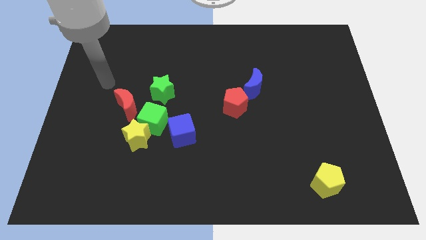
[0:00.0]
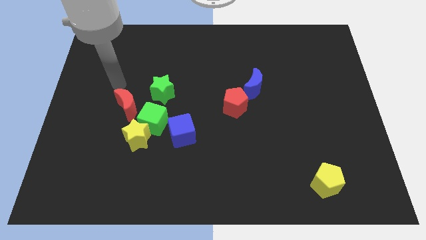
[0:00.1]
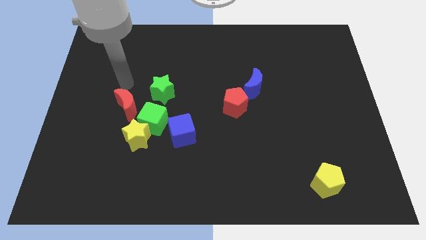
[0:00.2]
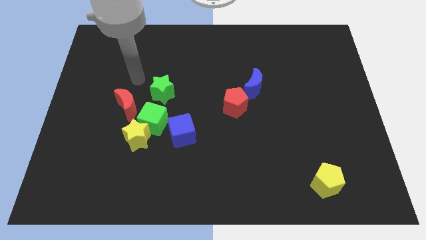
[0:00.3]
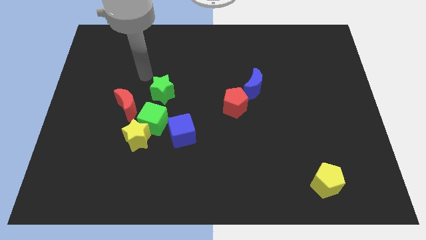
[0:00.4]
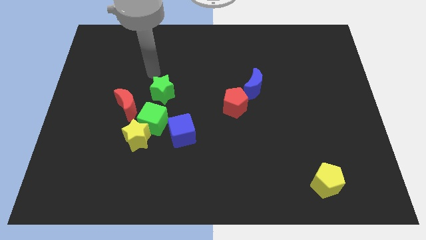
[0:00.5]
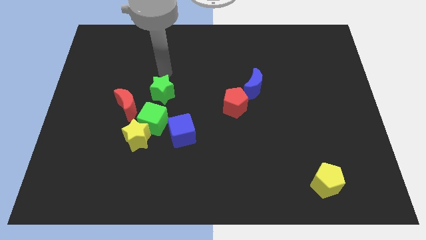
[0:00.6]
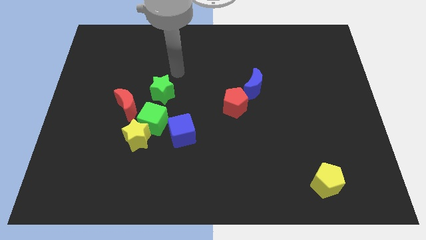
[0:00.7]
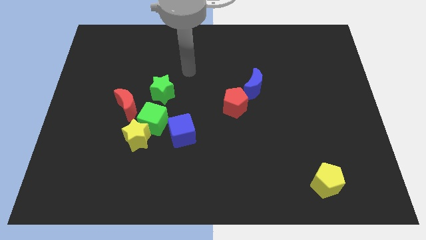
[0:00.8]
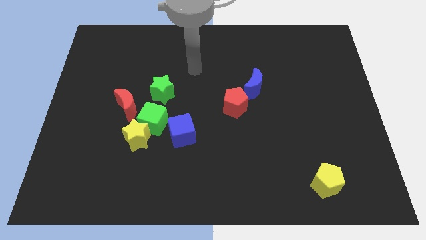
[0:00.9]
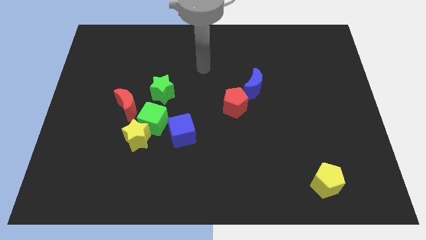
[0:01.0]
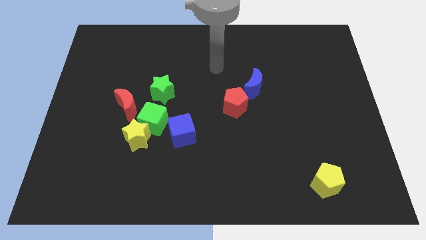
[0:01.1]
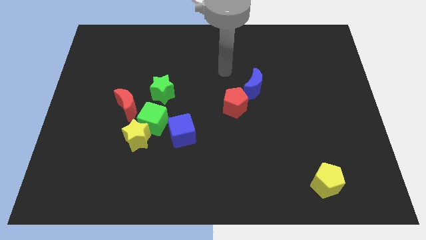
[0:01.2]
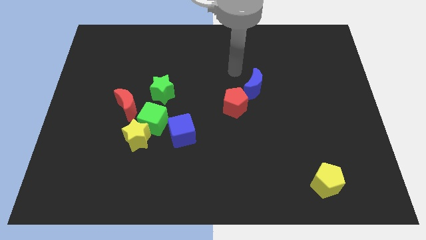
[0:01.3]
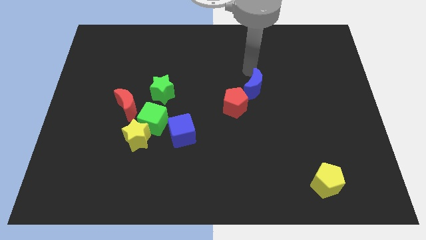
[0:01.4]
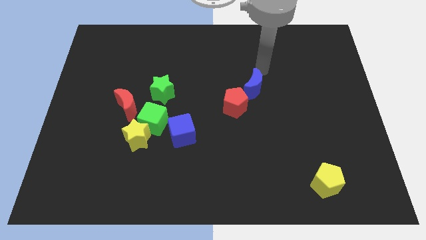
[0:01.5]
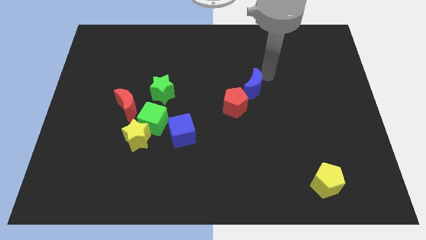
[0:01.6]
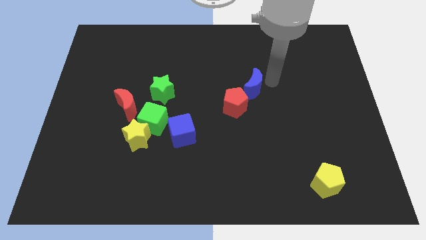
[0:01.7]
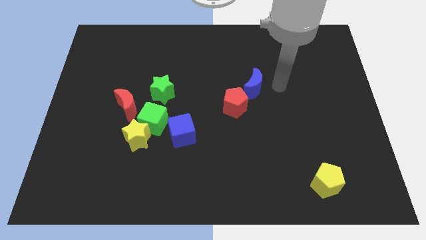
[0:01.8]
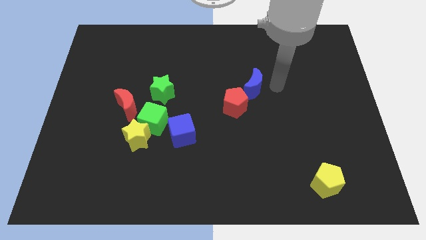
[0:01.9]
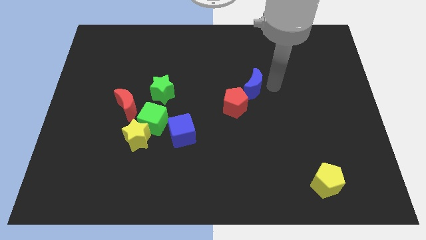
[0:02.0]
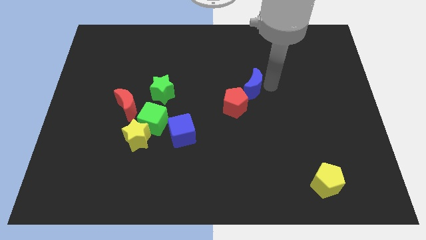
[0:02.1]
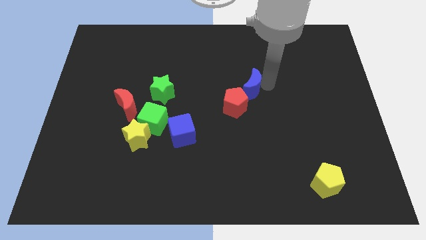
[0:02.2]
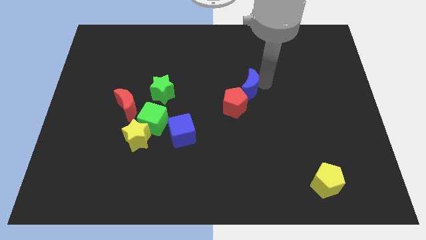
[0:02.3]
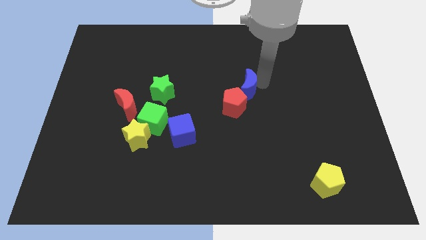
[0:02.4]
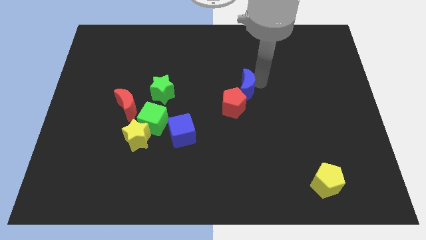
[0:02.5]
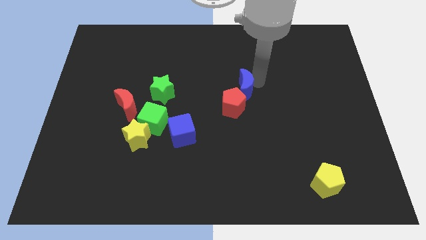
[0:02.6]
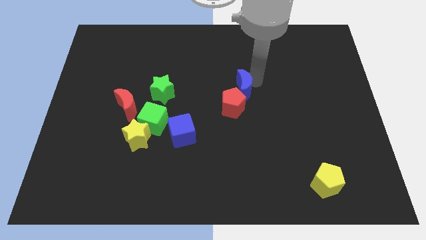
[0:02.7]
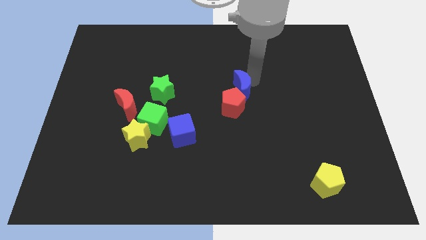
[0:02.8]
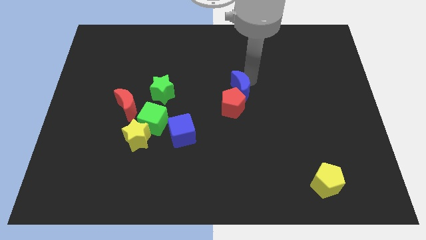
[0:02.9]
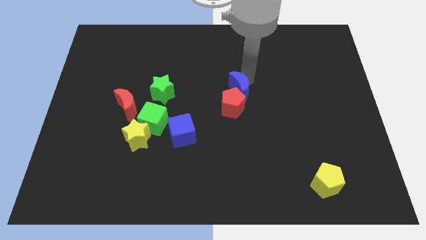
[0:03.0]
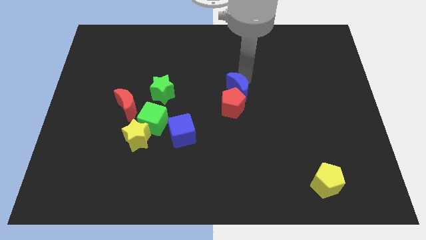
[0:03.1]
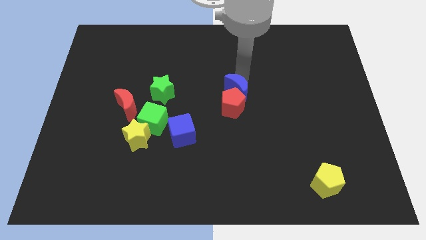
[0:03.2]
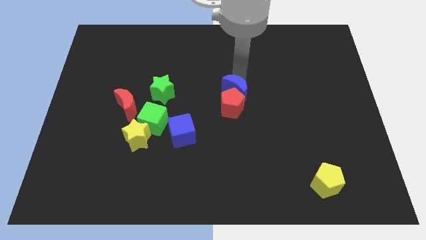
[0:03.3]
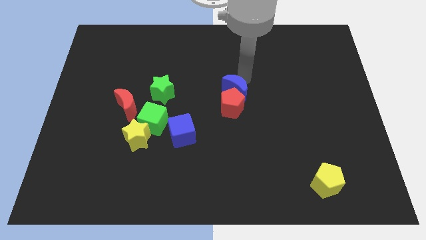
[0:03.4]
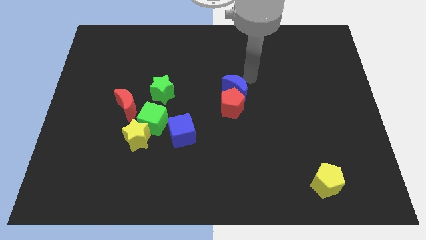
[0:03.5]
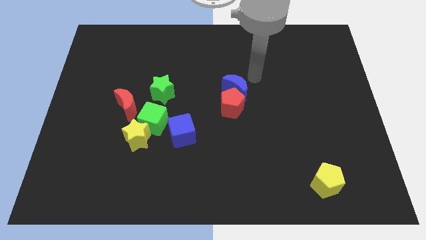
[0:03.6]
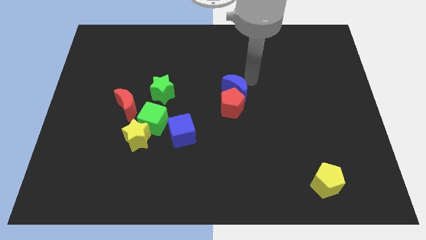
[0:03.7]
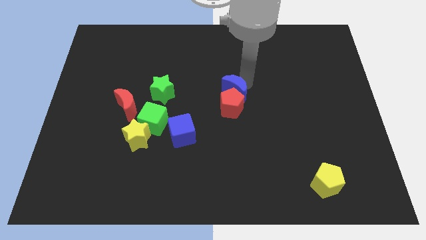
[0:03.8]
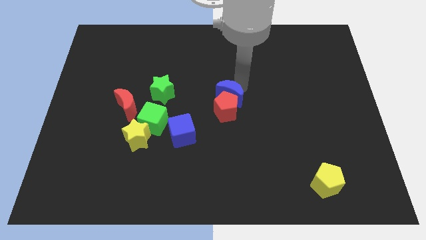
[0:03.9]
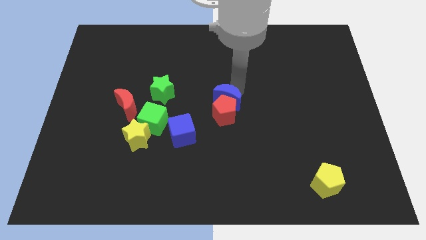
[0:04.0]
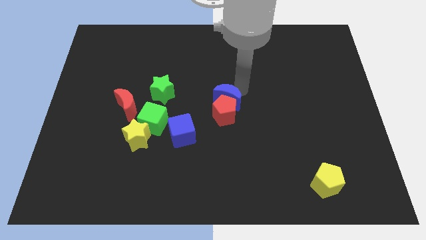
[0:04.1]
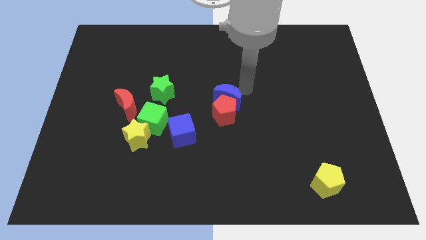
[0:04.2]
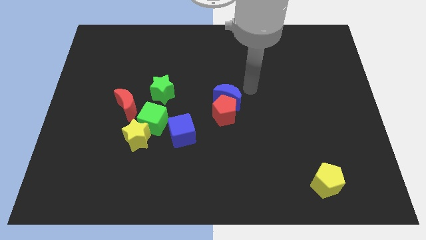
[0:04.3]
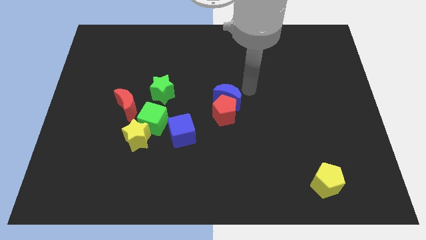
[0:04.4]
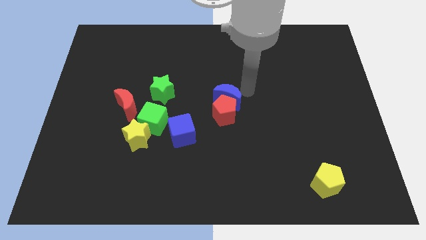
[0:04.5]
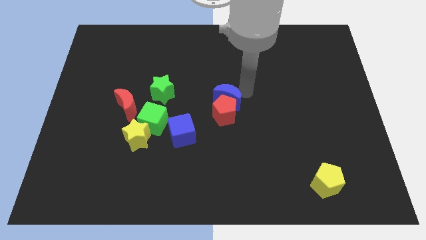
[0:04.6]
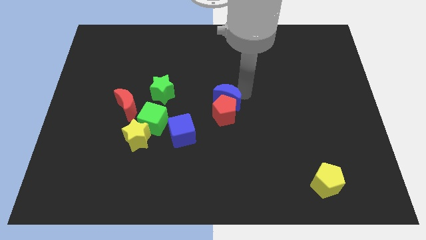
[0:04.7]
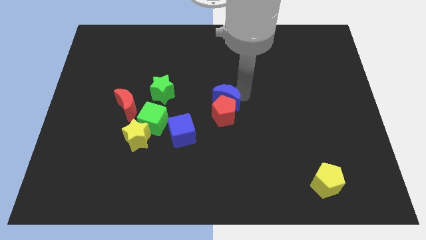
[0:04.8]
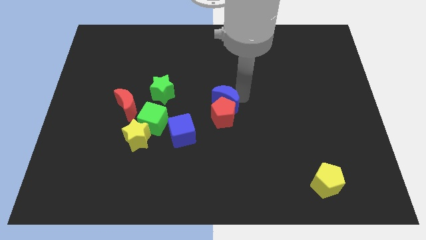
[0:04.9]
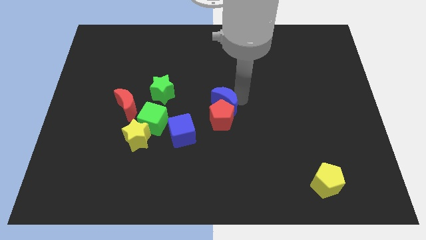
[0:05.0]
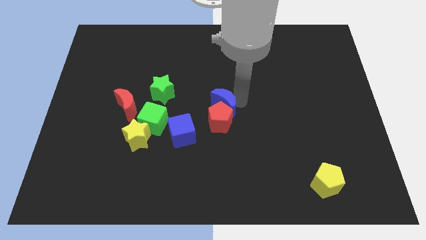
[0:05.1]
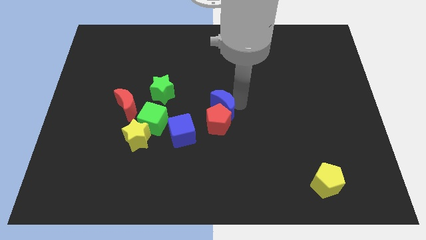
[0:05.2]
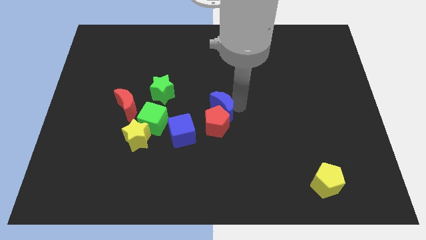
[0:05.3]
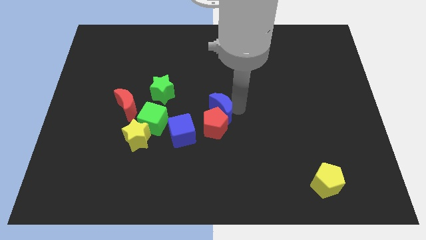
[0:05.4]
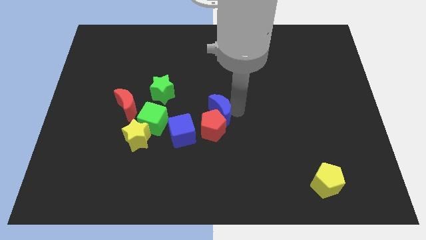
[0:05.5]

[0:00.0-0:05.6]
move the blue moon to the right side of the green cube

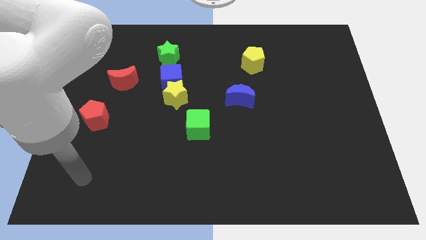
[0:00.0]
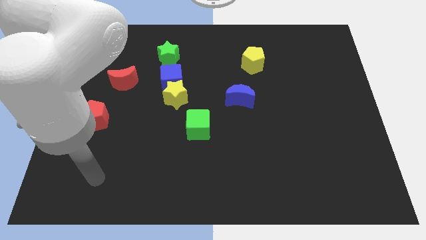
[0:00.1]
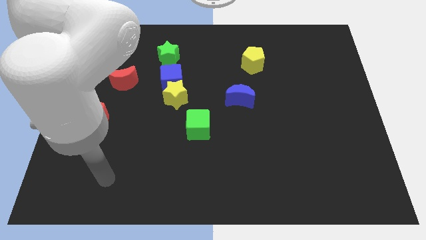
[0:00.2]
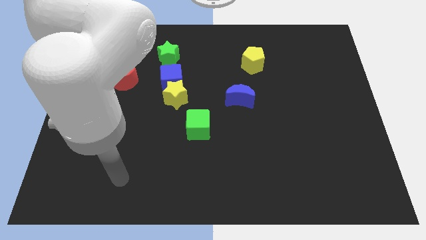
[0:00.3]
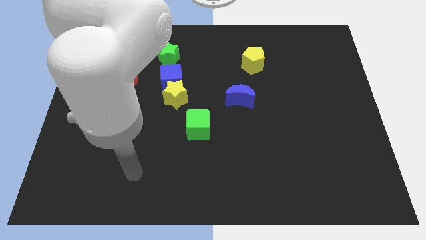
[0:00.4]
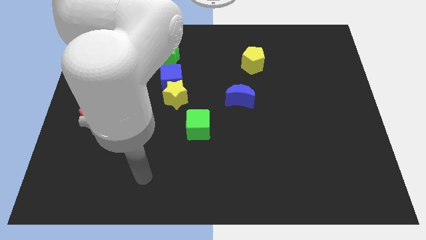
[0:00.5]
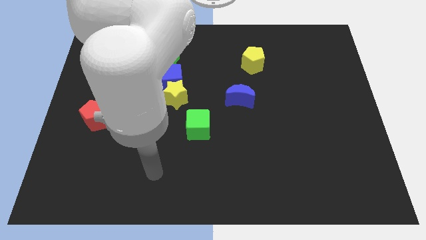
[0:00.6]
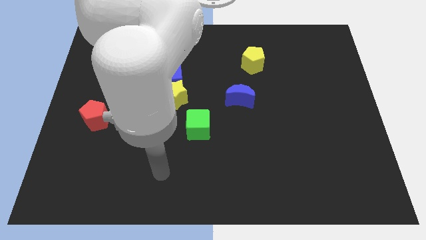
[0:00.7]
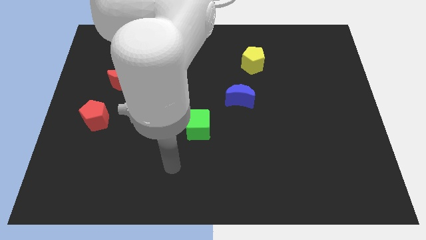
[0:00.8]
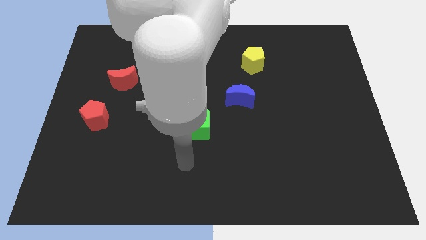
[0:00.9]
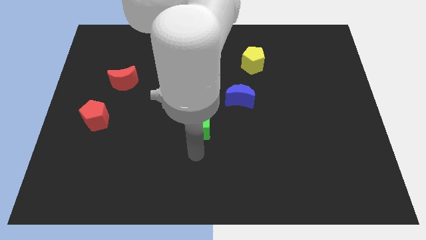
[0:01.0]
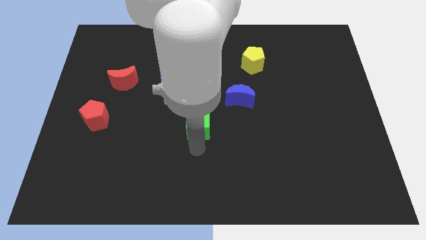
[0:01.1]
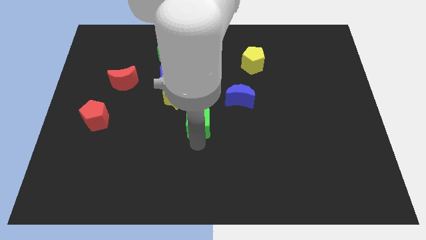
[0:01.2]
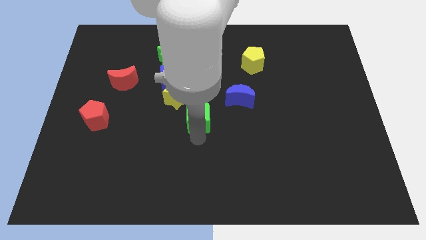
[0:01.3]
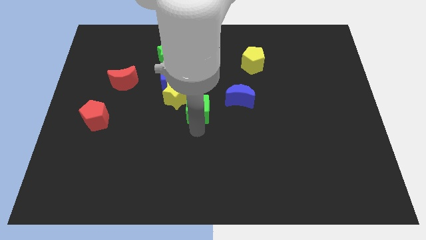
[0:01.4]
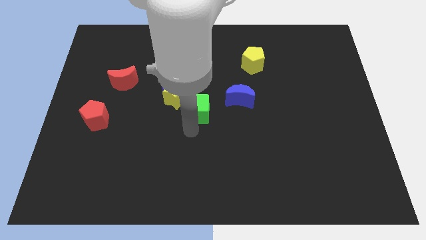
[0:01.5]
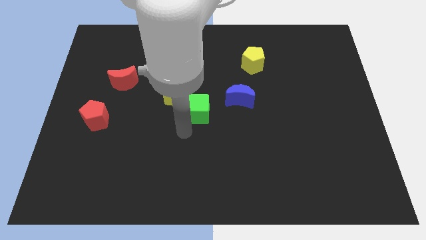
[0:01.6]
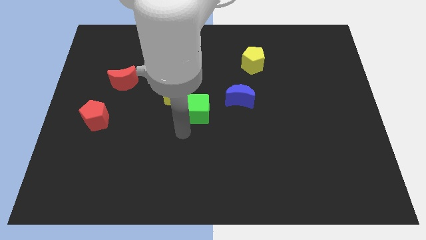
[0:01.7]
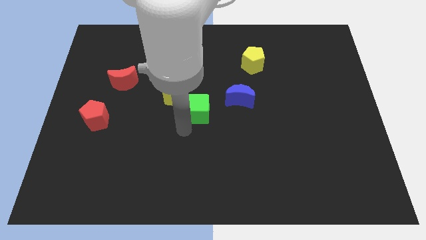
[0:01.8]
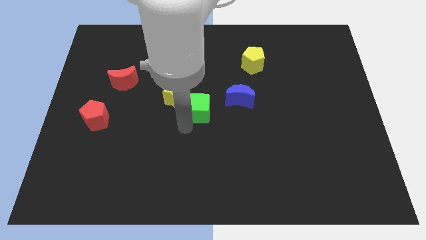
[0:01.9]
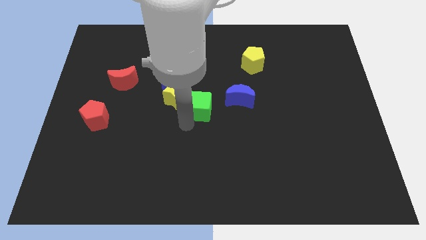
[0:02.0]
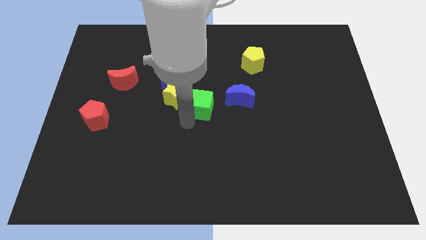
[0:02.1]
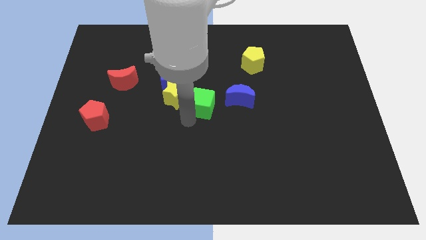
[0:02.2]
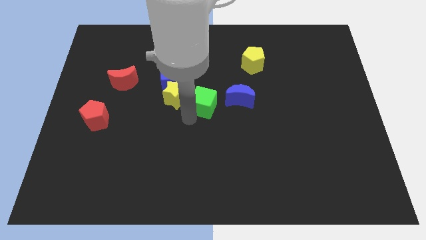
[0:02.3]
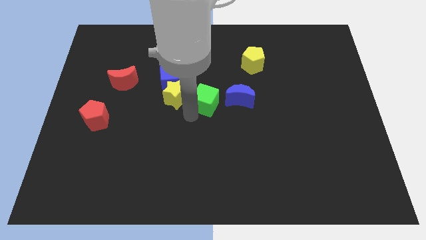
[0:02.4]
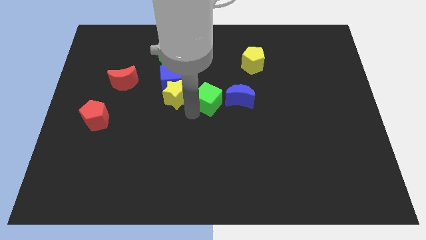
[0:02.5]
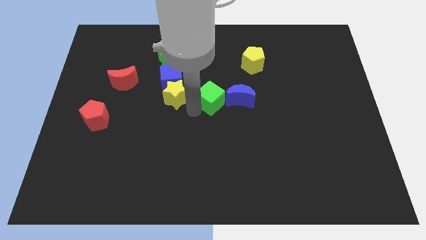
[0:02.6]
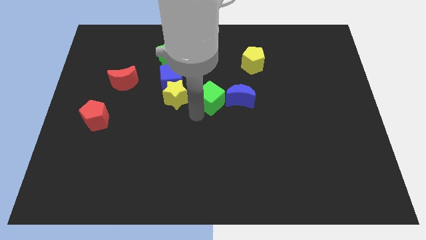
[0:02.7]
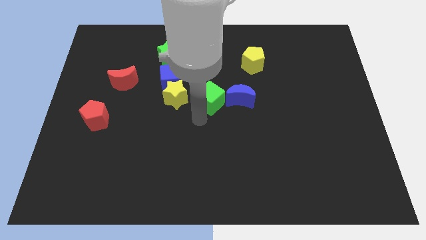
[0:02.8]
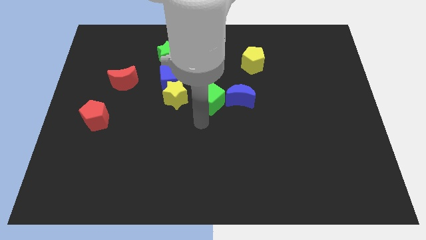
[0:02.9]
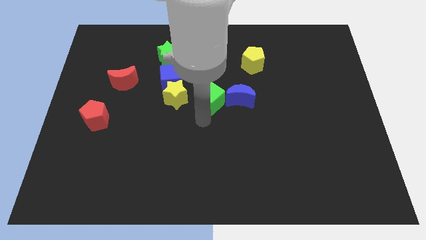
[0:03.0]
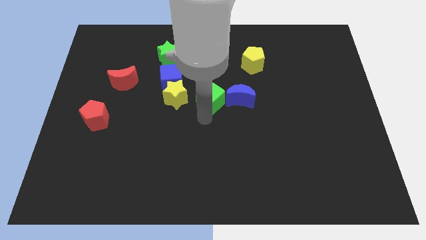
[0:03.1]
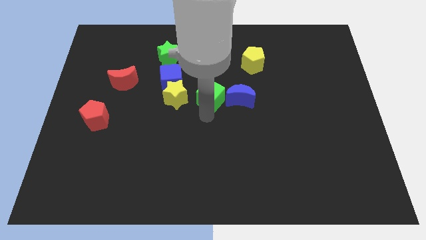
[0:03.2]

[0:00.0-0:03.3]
move the green cube to the top left side of the blue moon
